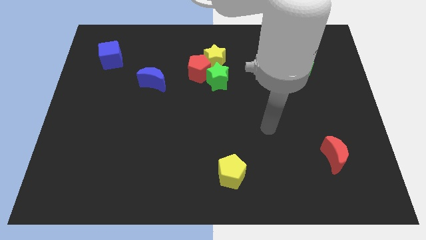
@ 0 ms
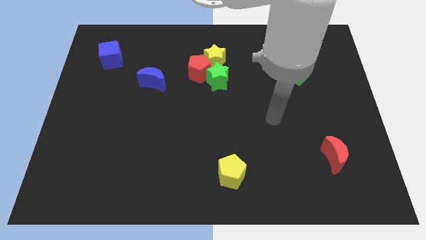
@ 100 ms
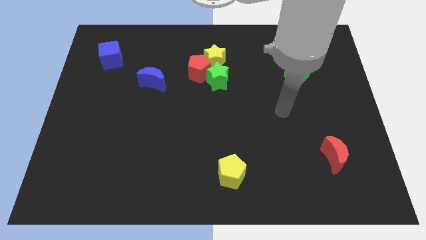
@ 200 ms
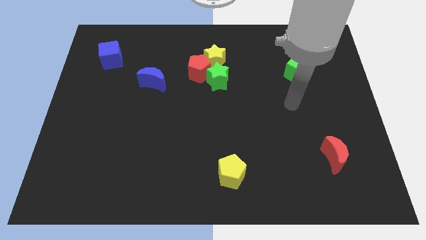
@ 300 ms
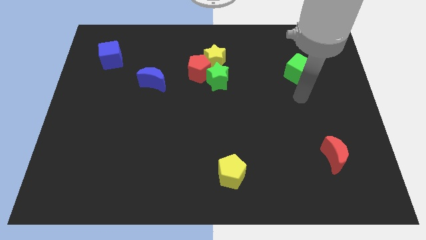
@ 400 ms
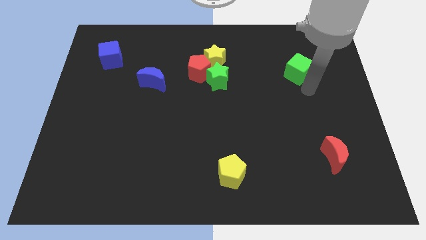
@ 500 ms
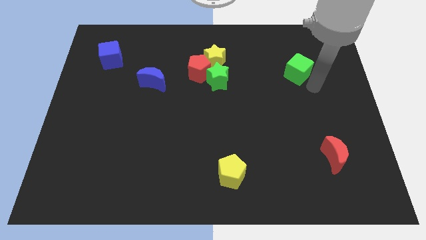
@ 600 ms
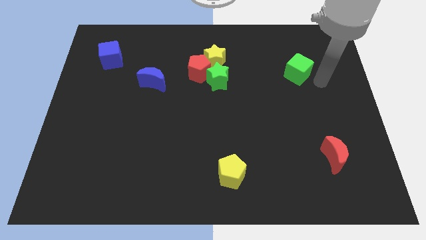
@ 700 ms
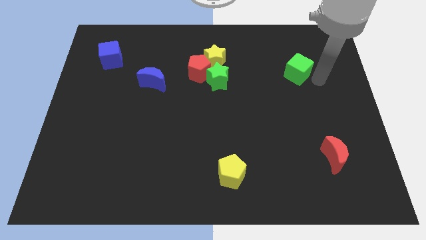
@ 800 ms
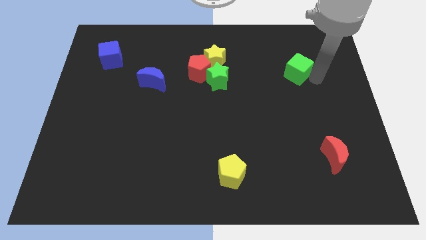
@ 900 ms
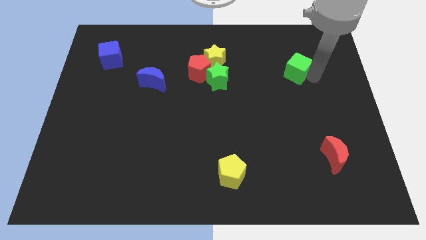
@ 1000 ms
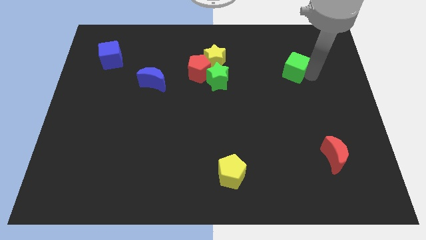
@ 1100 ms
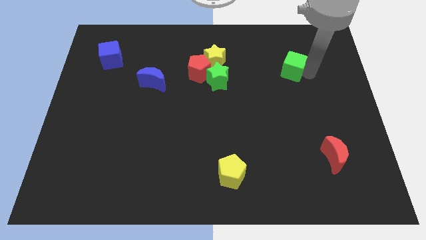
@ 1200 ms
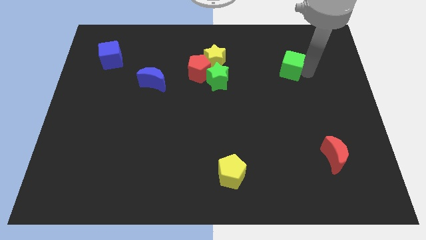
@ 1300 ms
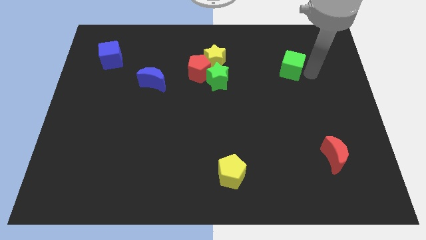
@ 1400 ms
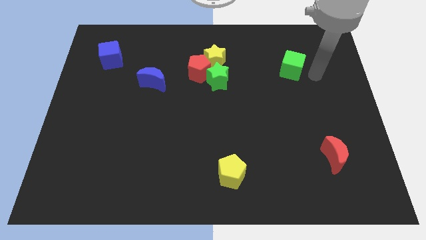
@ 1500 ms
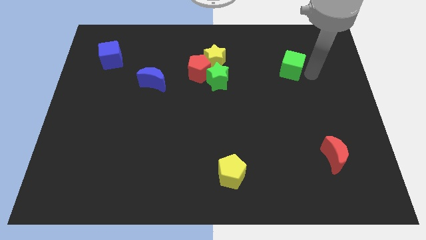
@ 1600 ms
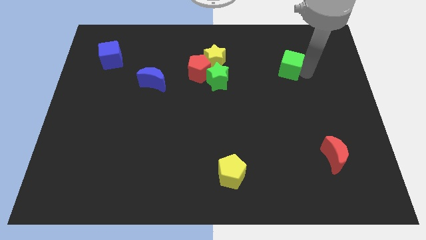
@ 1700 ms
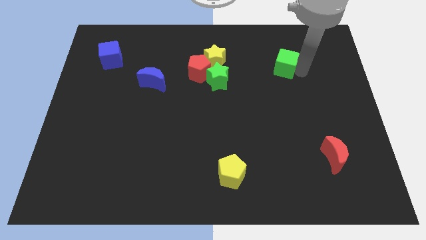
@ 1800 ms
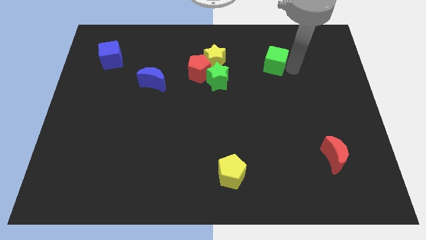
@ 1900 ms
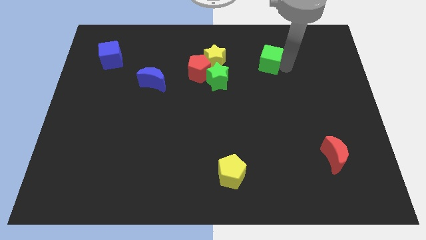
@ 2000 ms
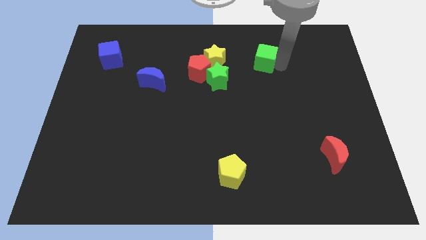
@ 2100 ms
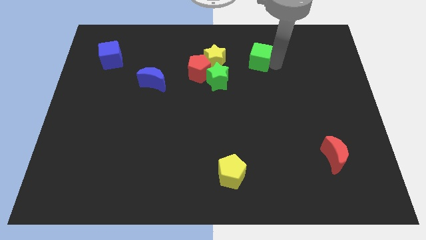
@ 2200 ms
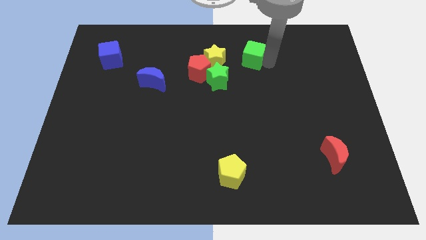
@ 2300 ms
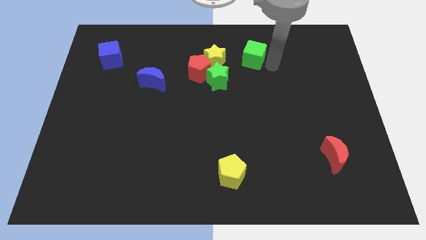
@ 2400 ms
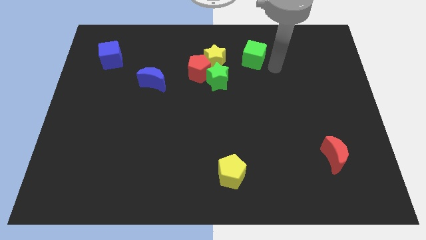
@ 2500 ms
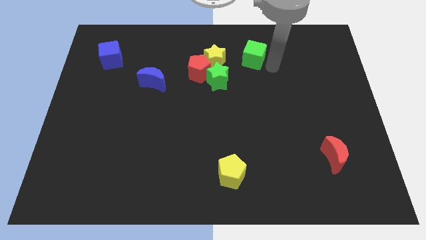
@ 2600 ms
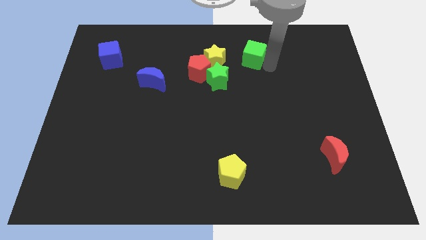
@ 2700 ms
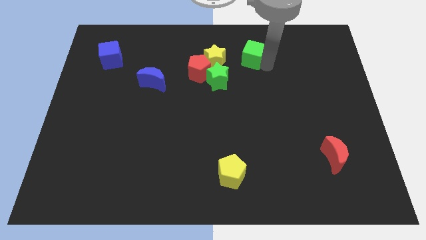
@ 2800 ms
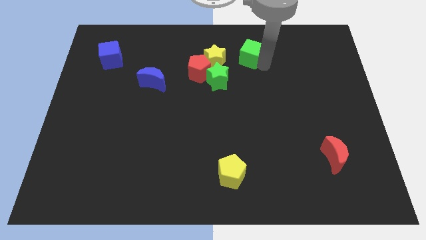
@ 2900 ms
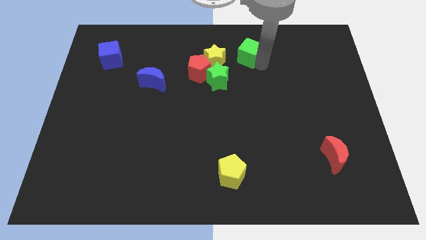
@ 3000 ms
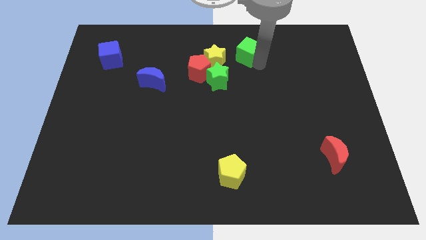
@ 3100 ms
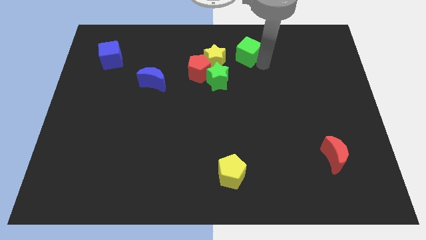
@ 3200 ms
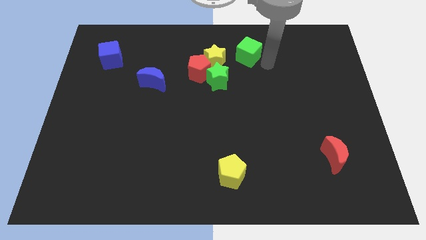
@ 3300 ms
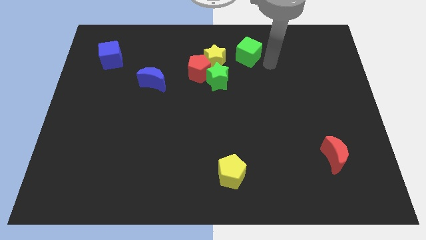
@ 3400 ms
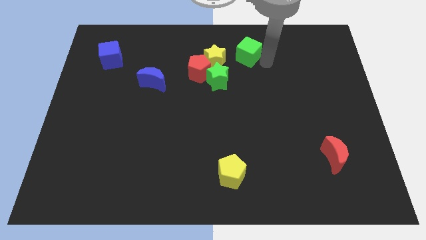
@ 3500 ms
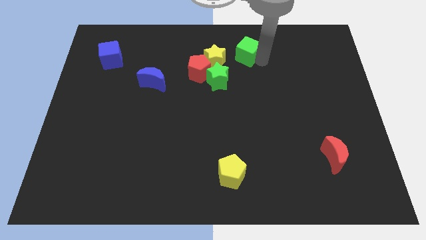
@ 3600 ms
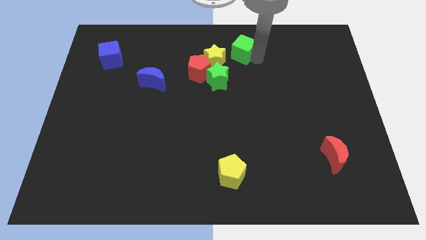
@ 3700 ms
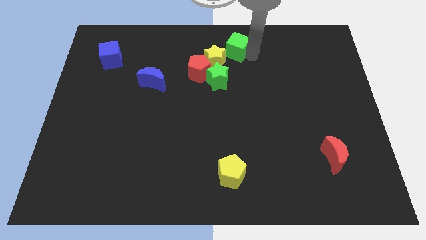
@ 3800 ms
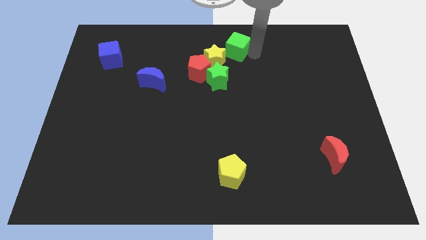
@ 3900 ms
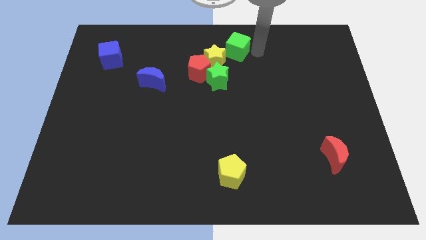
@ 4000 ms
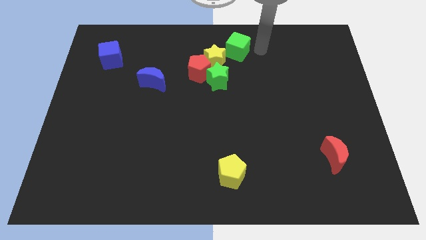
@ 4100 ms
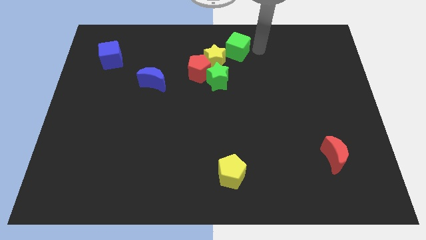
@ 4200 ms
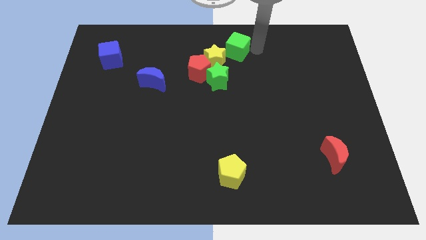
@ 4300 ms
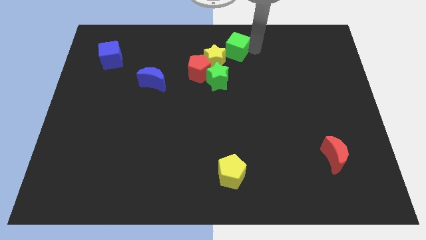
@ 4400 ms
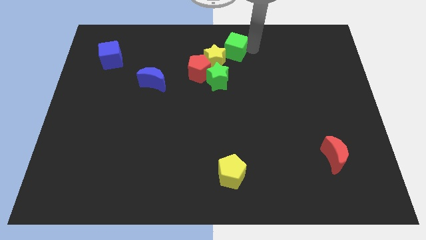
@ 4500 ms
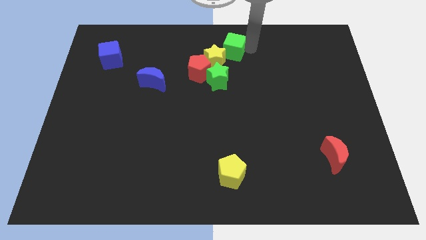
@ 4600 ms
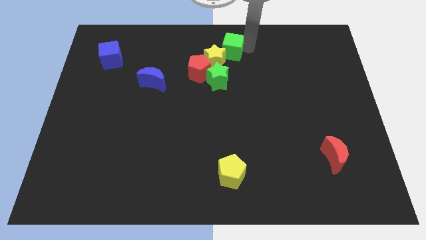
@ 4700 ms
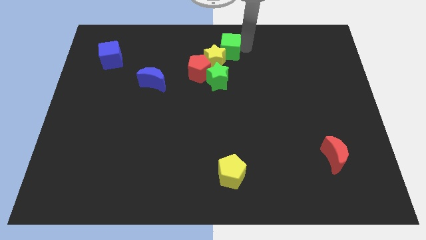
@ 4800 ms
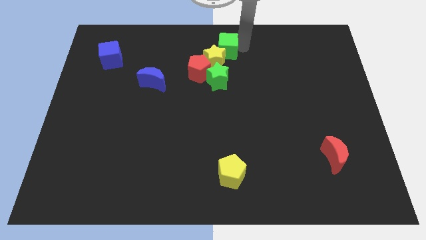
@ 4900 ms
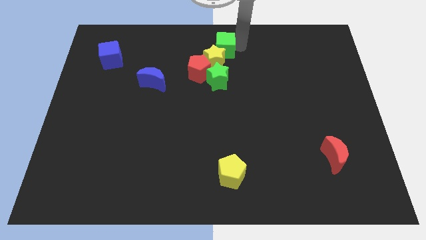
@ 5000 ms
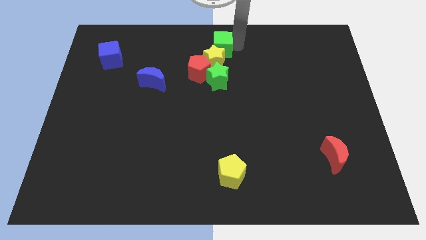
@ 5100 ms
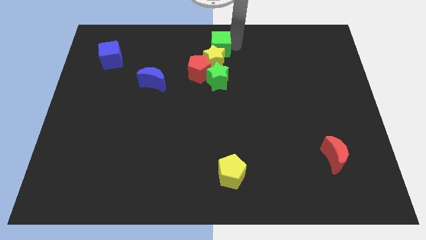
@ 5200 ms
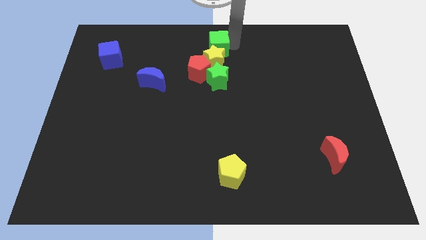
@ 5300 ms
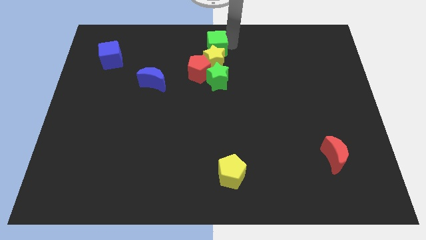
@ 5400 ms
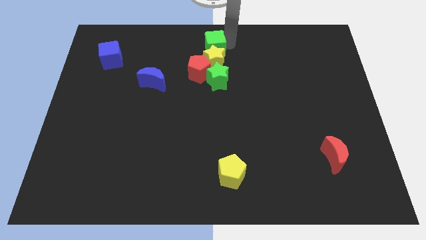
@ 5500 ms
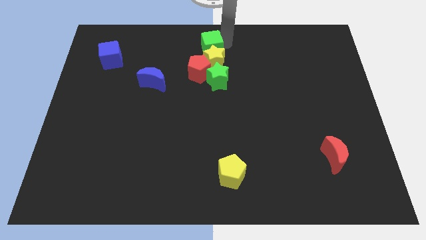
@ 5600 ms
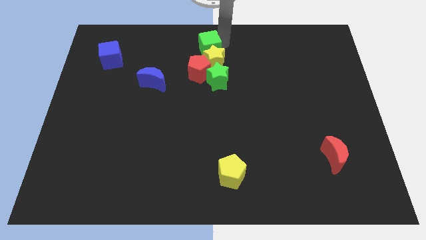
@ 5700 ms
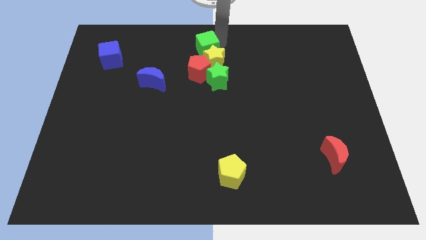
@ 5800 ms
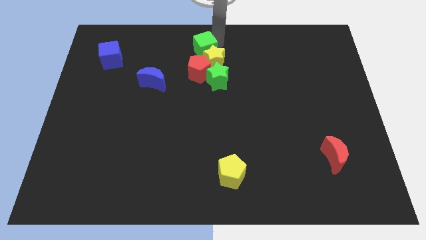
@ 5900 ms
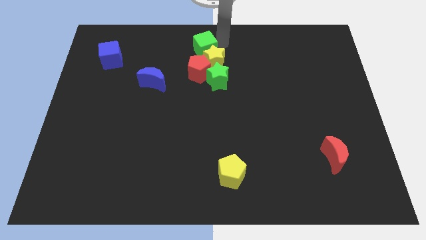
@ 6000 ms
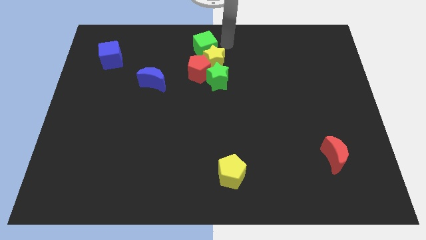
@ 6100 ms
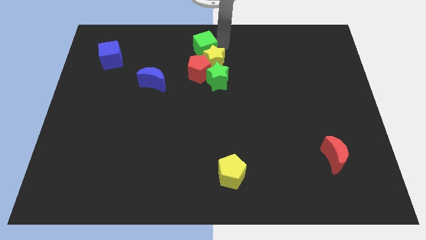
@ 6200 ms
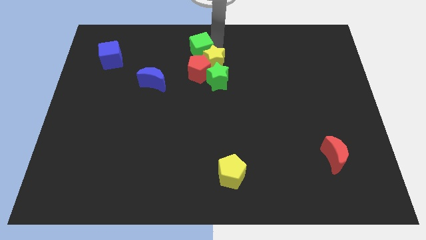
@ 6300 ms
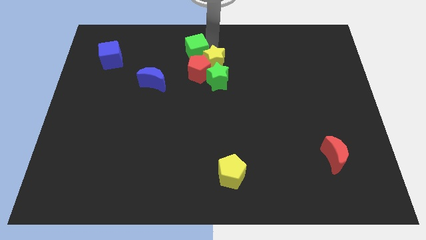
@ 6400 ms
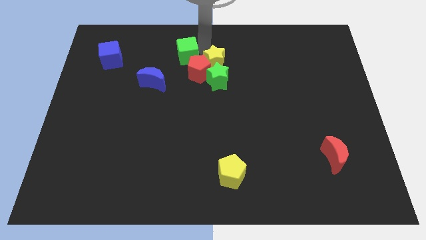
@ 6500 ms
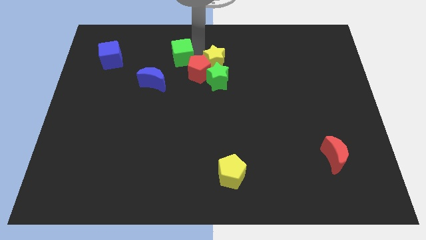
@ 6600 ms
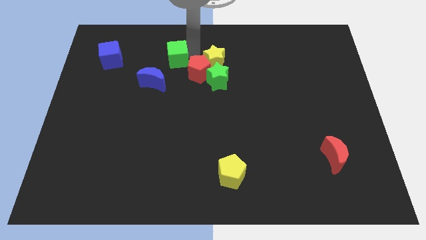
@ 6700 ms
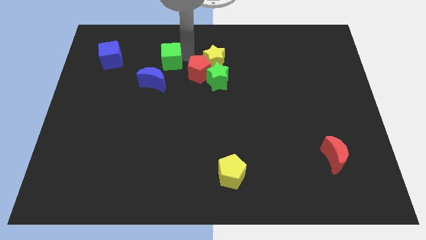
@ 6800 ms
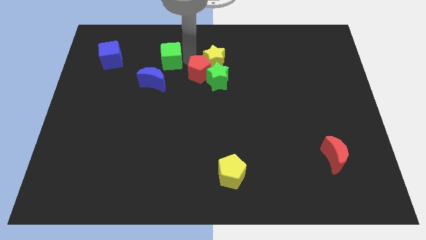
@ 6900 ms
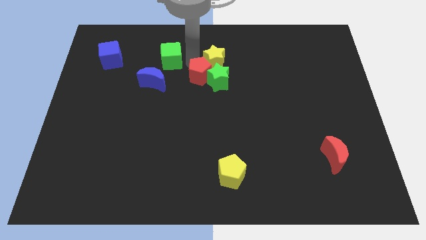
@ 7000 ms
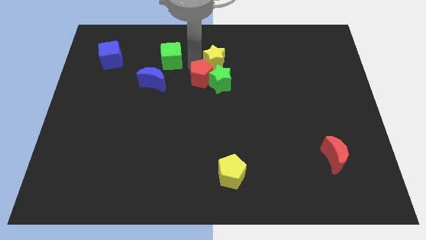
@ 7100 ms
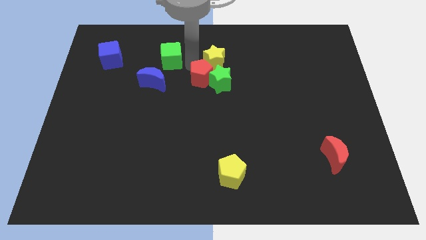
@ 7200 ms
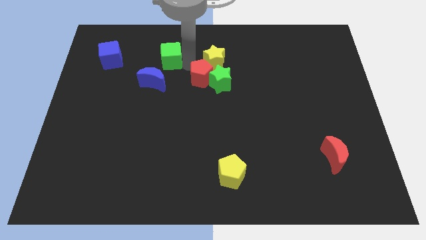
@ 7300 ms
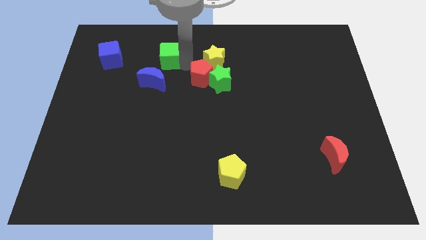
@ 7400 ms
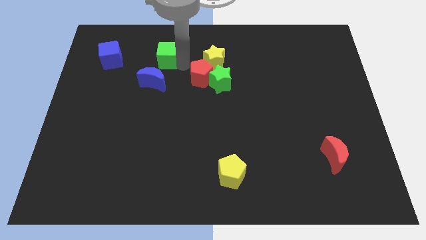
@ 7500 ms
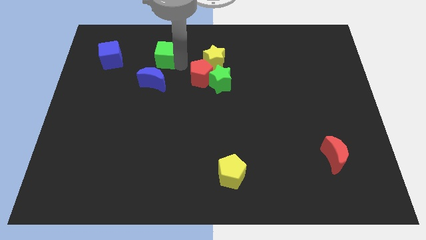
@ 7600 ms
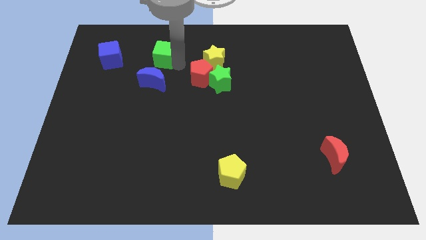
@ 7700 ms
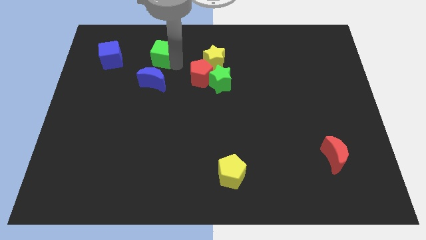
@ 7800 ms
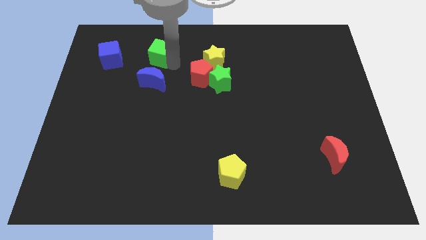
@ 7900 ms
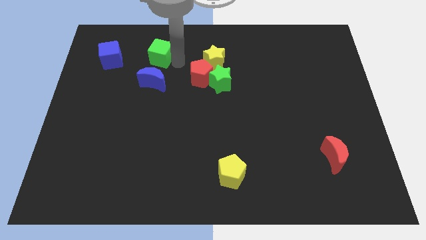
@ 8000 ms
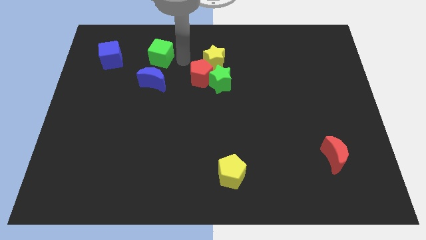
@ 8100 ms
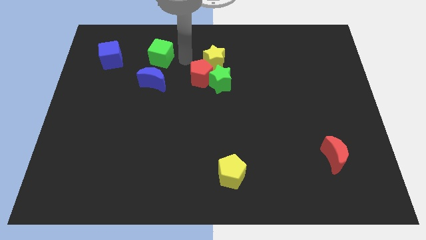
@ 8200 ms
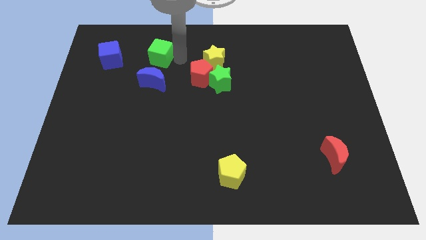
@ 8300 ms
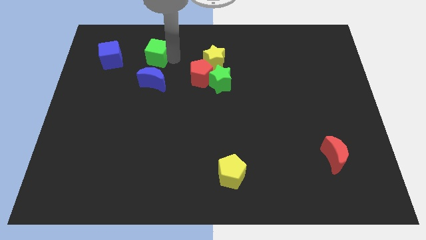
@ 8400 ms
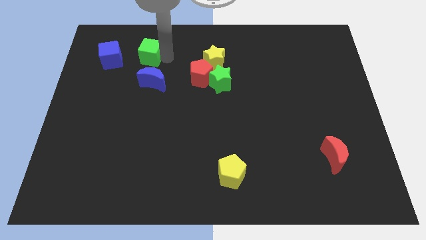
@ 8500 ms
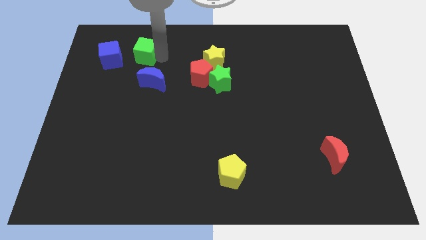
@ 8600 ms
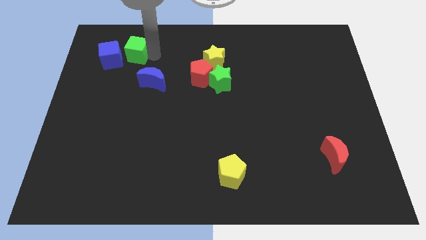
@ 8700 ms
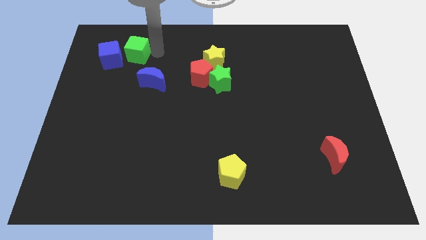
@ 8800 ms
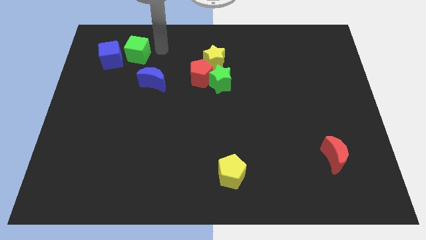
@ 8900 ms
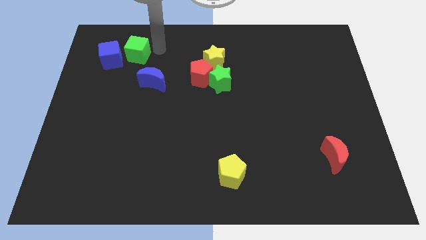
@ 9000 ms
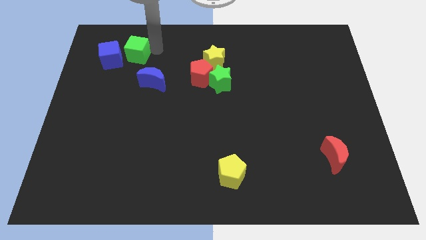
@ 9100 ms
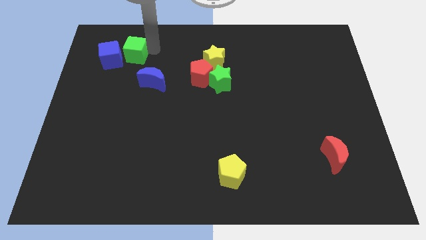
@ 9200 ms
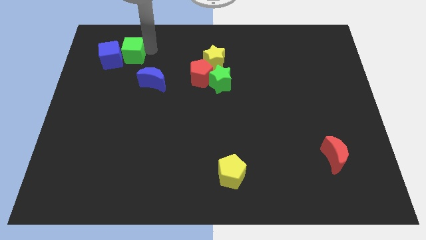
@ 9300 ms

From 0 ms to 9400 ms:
move the green cube to the blue cube
